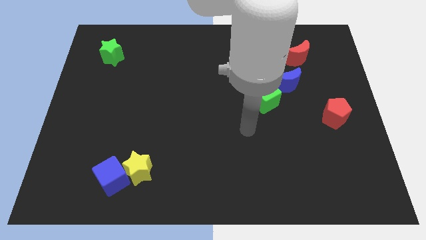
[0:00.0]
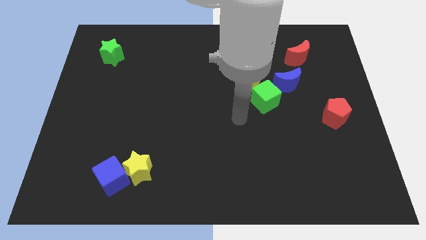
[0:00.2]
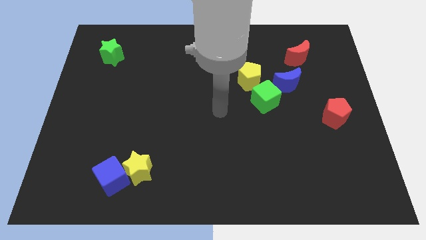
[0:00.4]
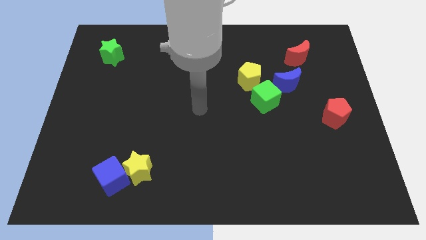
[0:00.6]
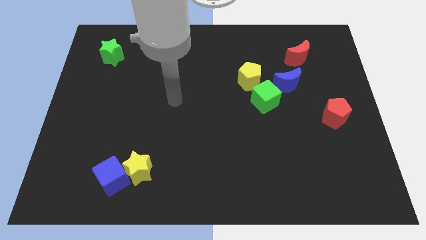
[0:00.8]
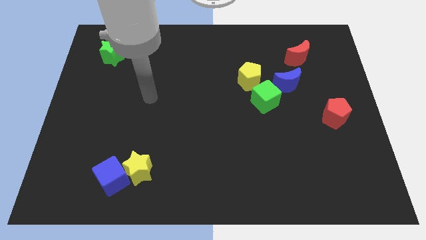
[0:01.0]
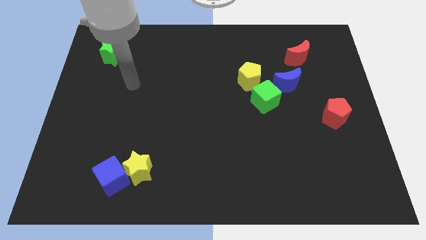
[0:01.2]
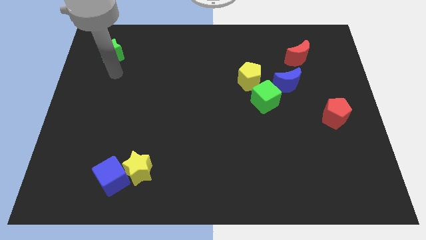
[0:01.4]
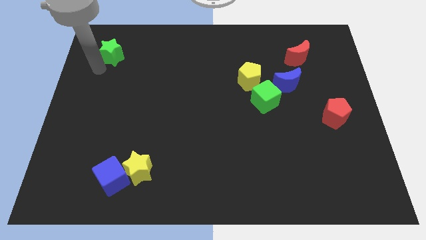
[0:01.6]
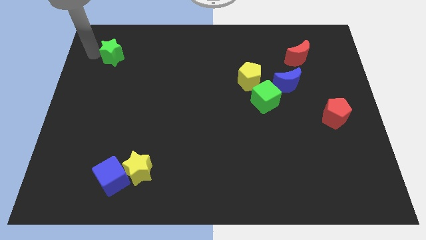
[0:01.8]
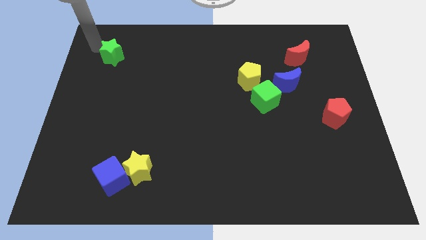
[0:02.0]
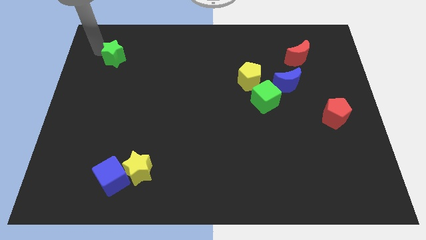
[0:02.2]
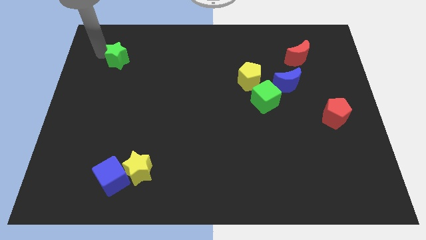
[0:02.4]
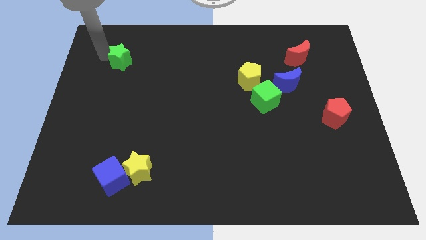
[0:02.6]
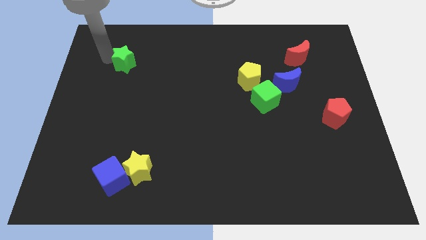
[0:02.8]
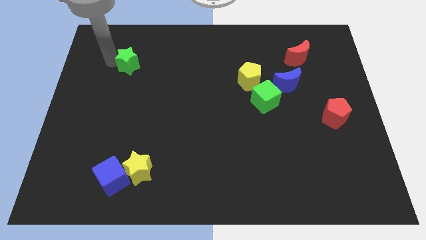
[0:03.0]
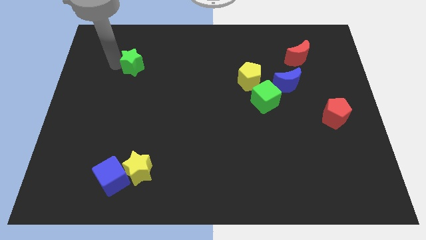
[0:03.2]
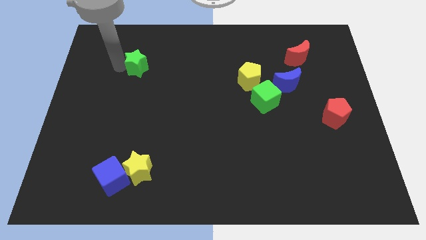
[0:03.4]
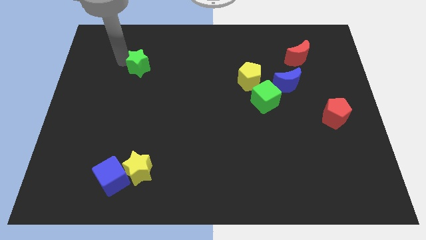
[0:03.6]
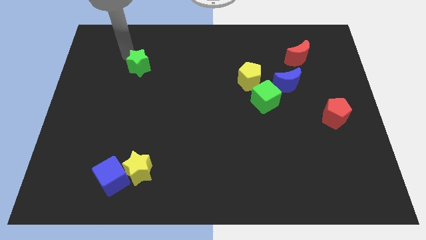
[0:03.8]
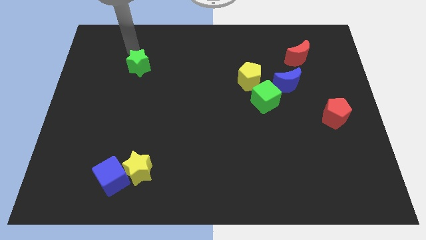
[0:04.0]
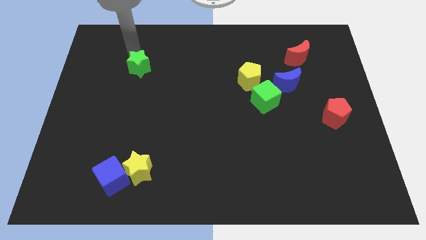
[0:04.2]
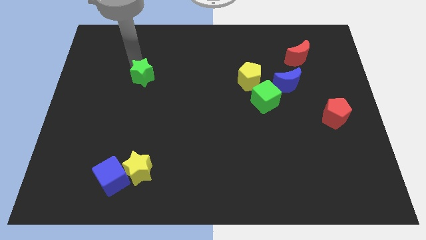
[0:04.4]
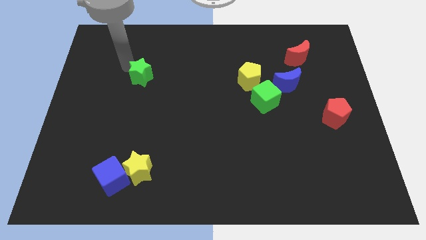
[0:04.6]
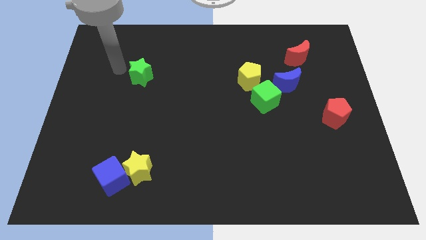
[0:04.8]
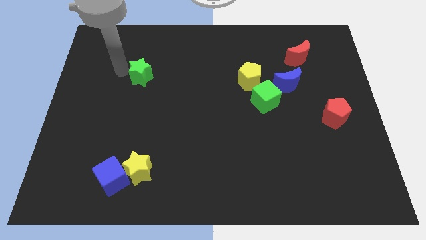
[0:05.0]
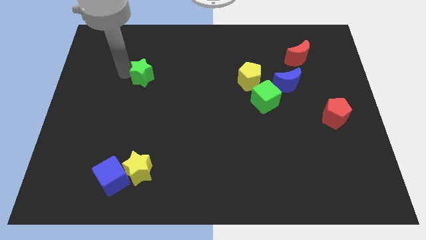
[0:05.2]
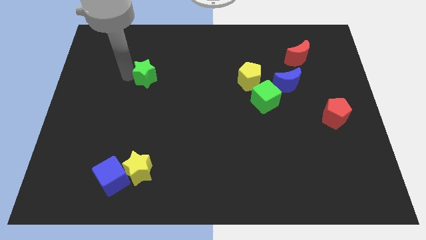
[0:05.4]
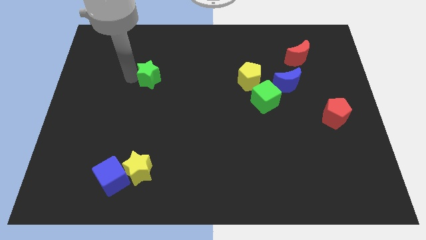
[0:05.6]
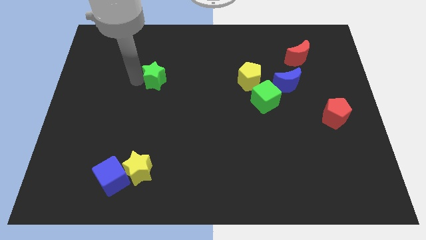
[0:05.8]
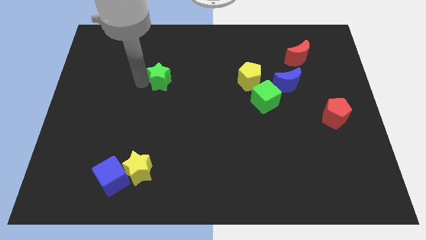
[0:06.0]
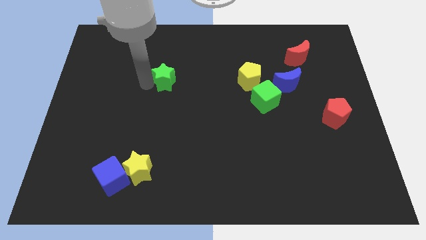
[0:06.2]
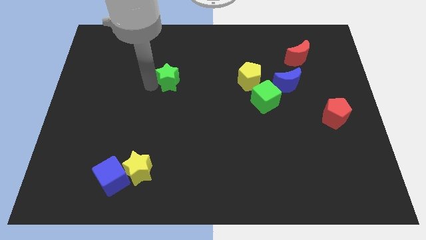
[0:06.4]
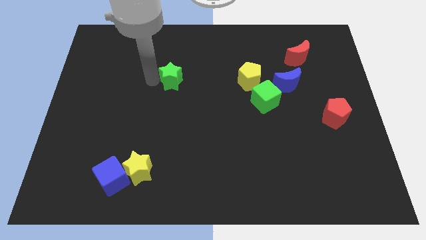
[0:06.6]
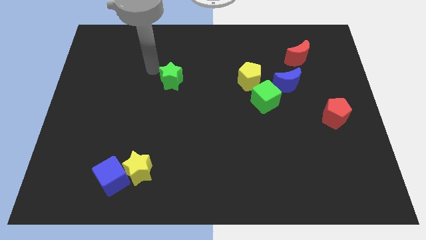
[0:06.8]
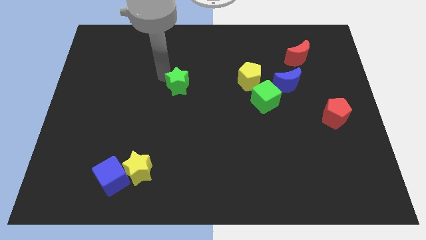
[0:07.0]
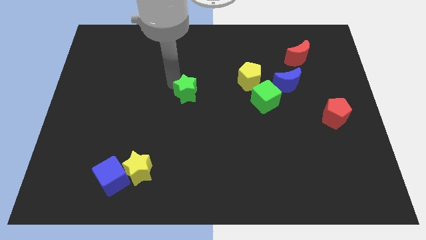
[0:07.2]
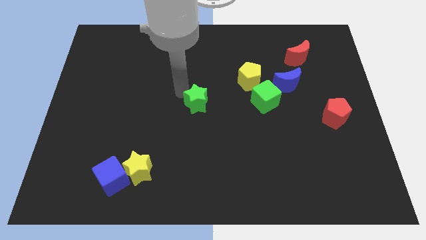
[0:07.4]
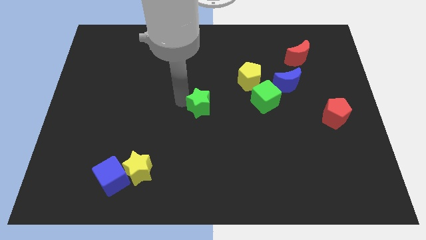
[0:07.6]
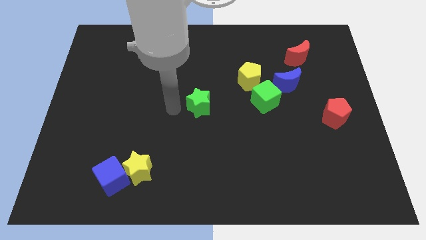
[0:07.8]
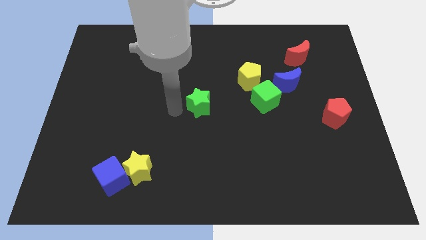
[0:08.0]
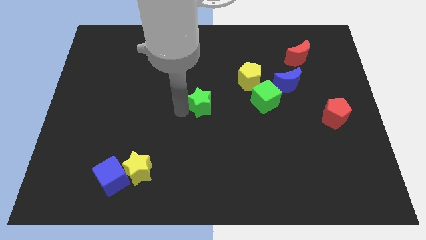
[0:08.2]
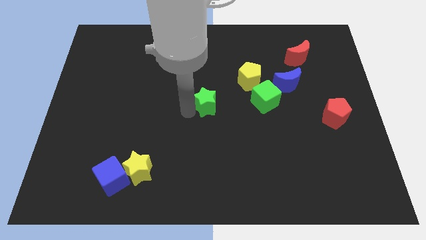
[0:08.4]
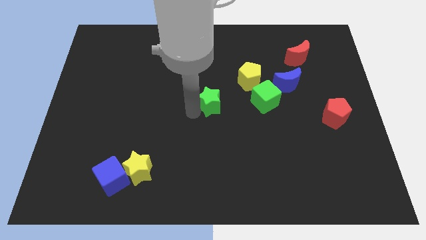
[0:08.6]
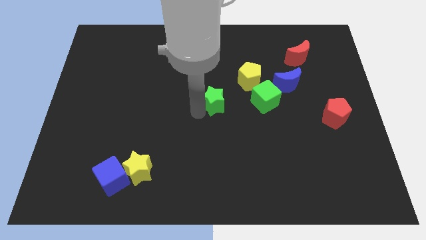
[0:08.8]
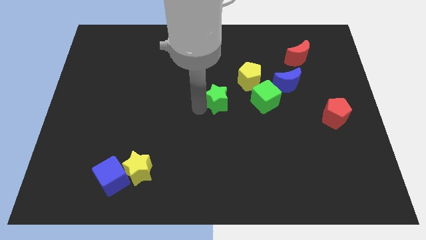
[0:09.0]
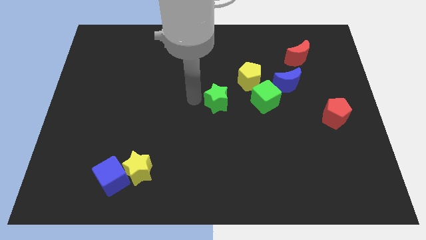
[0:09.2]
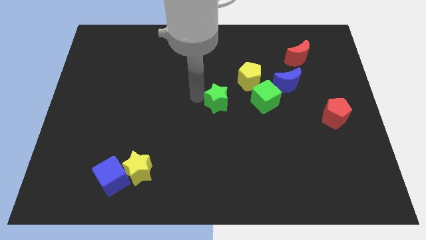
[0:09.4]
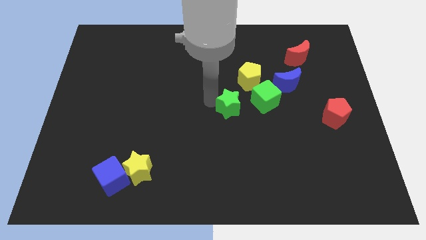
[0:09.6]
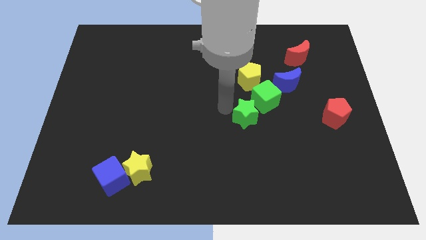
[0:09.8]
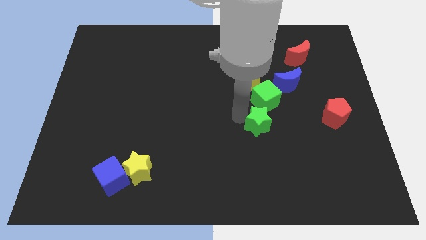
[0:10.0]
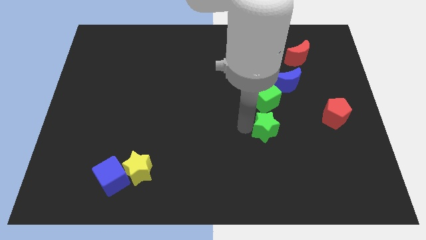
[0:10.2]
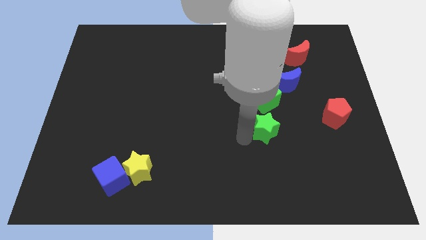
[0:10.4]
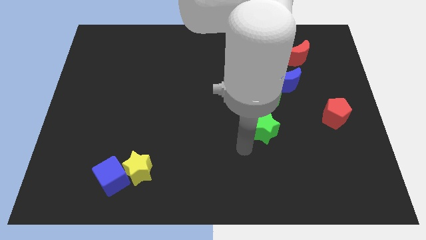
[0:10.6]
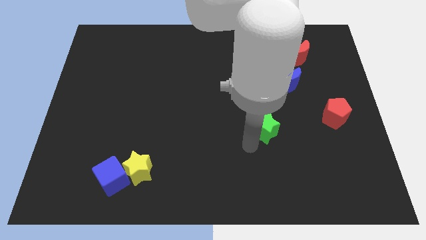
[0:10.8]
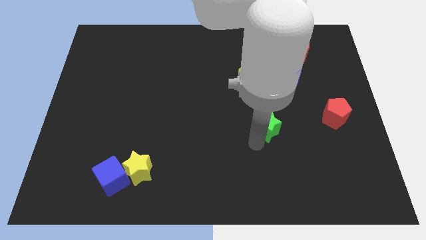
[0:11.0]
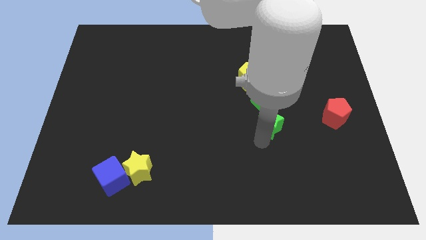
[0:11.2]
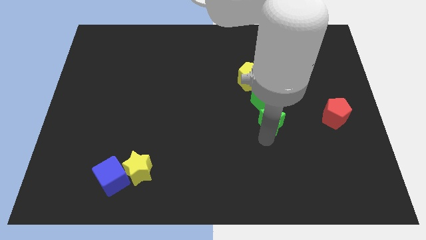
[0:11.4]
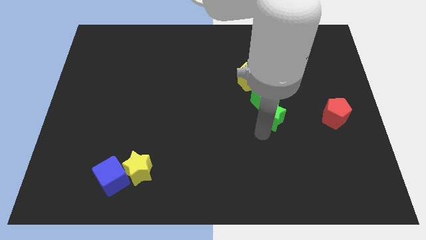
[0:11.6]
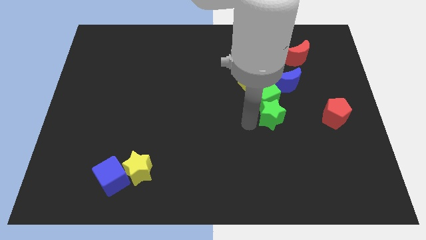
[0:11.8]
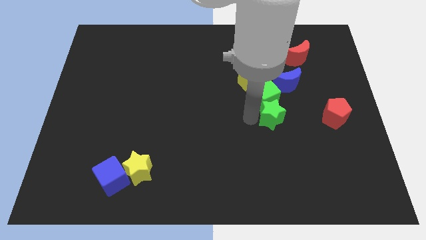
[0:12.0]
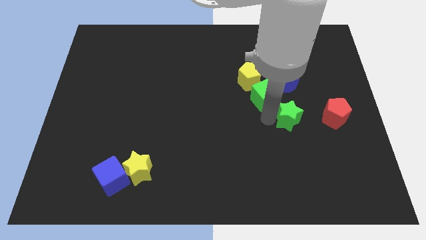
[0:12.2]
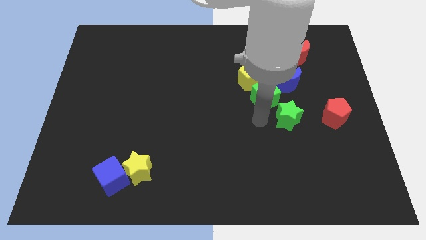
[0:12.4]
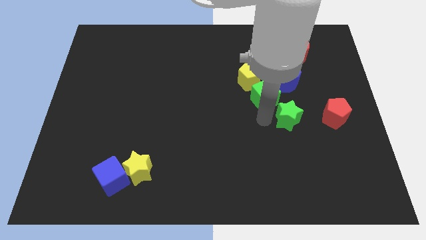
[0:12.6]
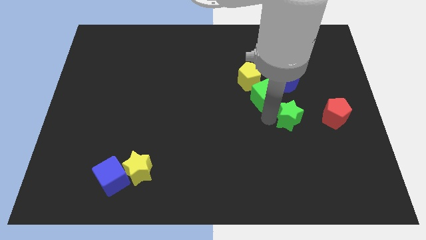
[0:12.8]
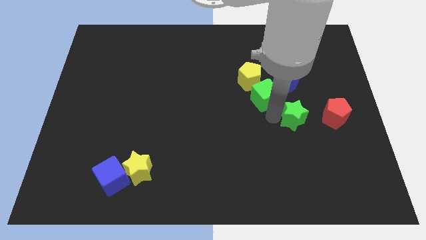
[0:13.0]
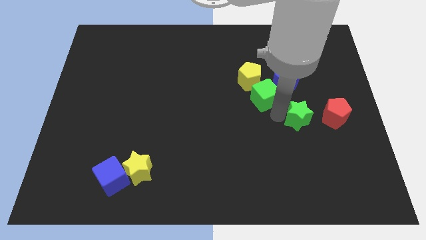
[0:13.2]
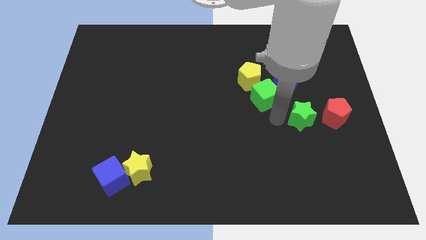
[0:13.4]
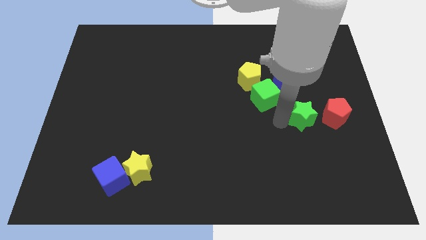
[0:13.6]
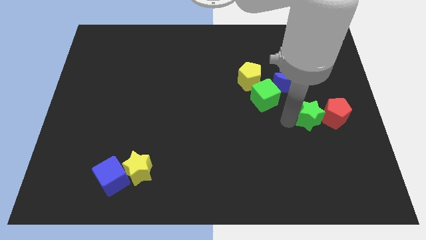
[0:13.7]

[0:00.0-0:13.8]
put the green star close to the red pentagon
